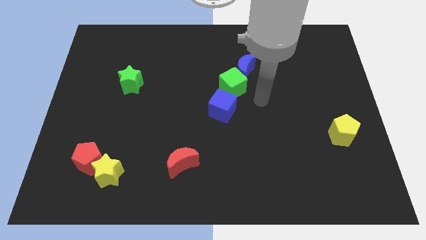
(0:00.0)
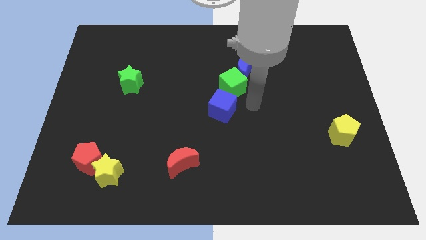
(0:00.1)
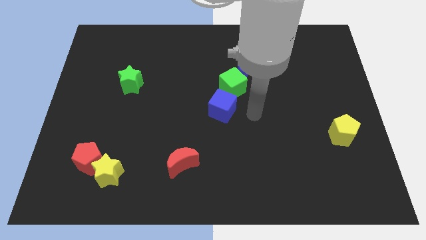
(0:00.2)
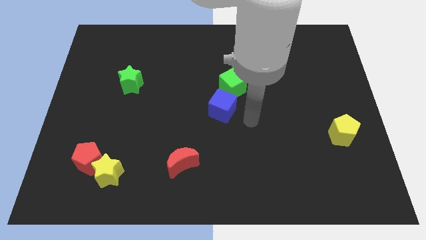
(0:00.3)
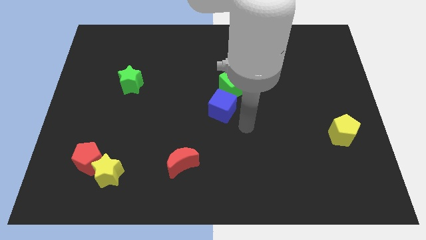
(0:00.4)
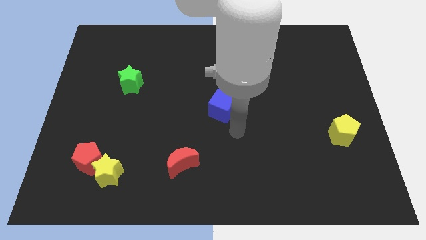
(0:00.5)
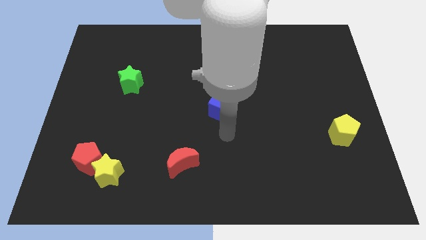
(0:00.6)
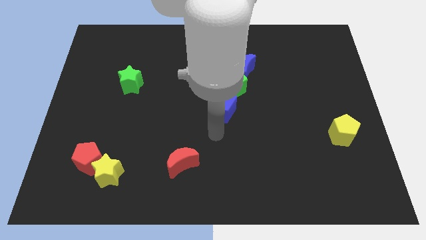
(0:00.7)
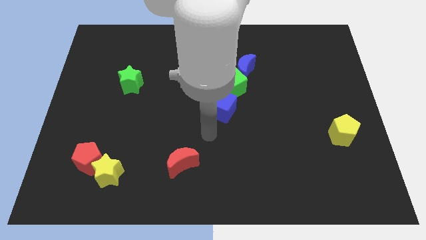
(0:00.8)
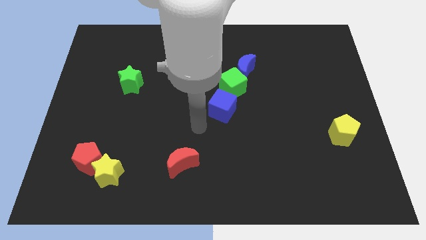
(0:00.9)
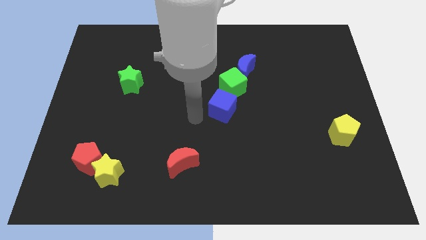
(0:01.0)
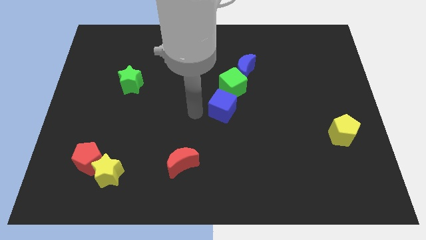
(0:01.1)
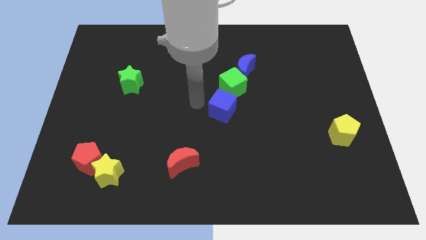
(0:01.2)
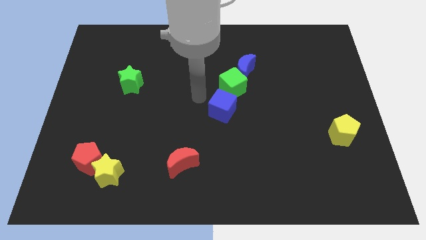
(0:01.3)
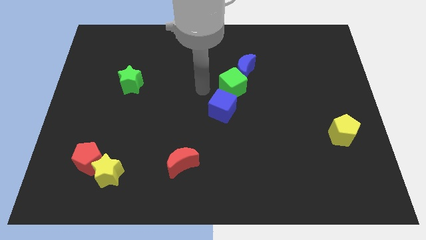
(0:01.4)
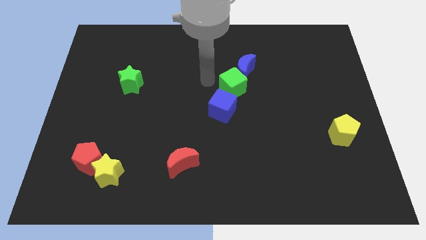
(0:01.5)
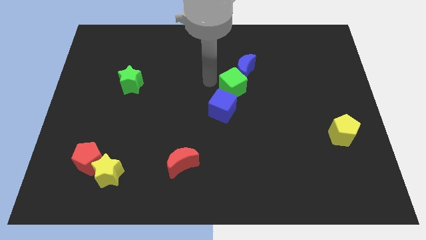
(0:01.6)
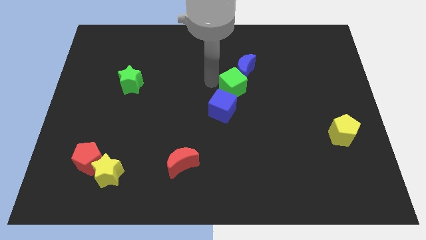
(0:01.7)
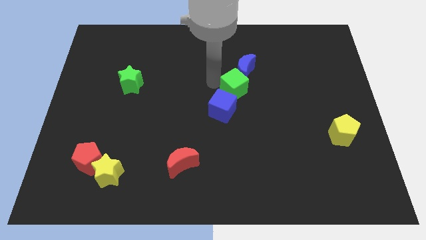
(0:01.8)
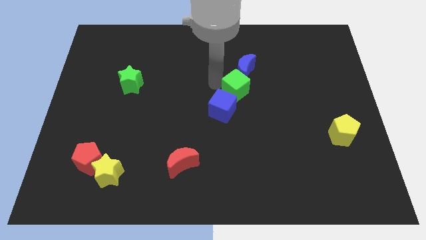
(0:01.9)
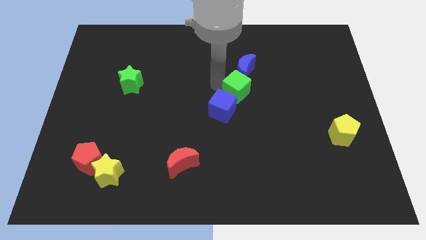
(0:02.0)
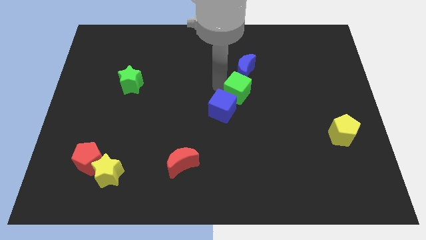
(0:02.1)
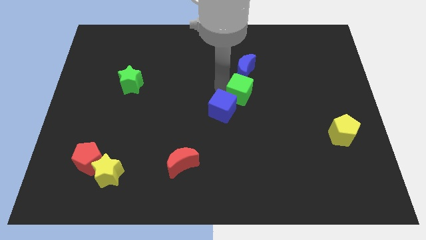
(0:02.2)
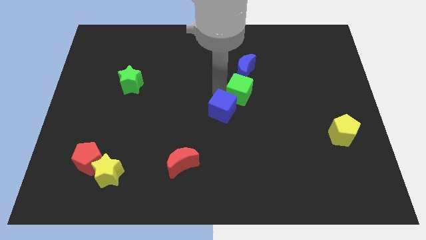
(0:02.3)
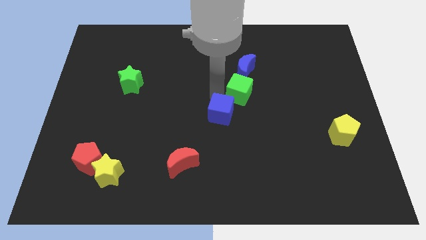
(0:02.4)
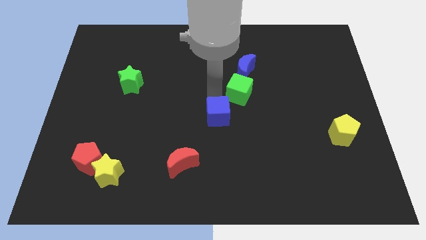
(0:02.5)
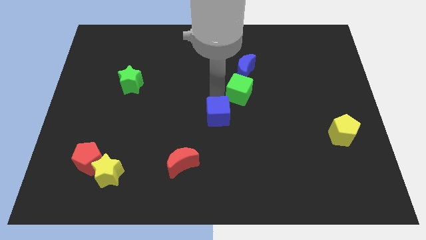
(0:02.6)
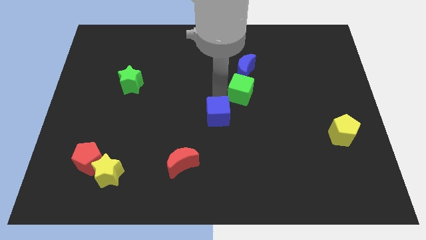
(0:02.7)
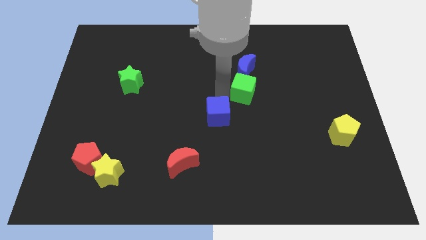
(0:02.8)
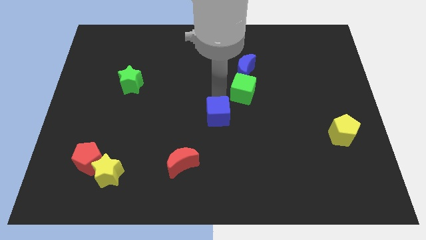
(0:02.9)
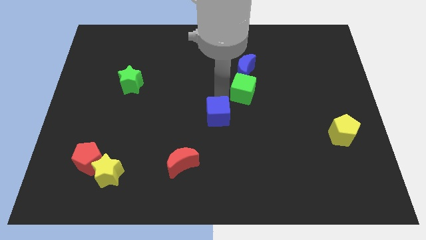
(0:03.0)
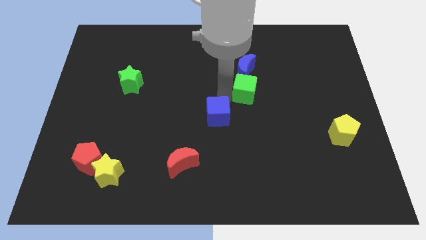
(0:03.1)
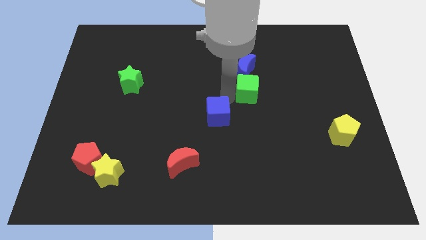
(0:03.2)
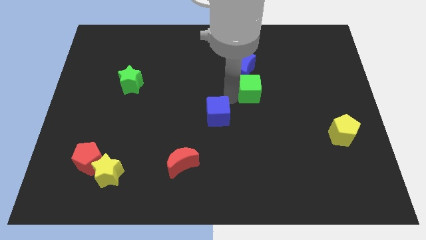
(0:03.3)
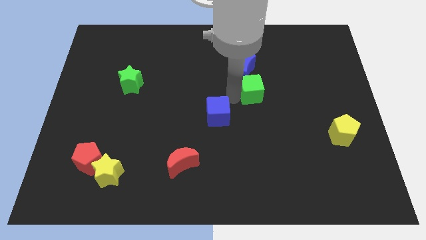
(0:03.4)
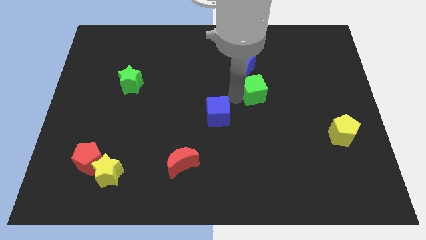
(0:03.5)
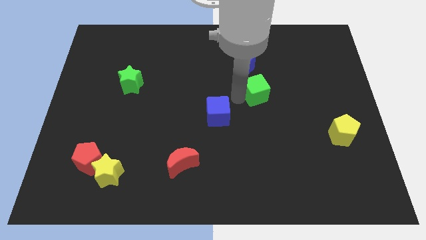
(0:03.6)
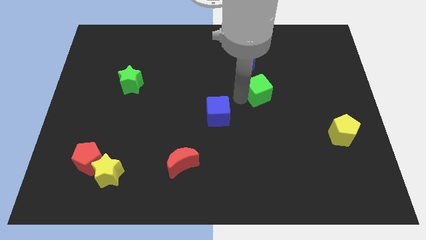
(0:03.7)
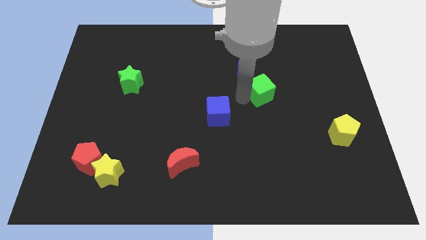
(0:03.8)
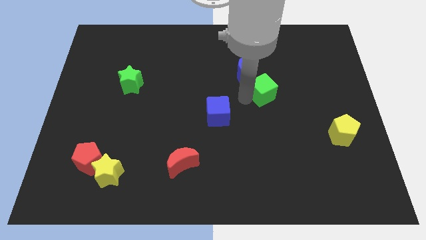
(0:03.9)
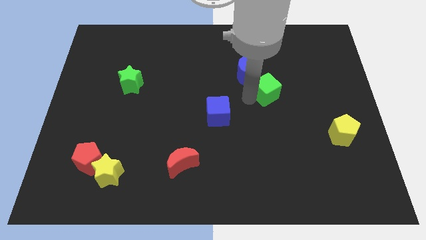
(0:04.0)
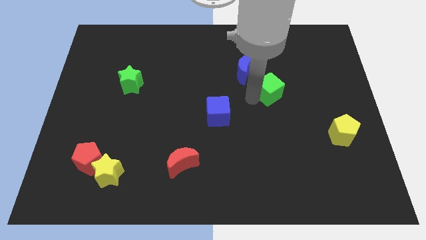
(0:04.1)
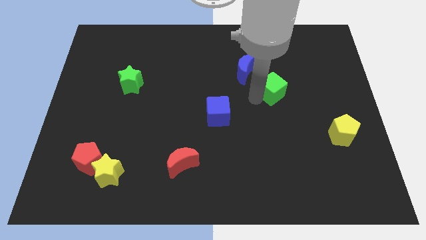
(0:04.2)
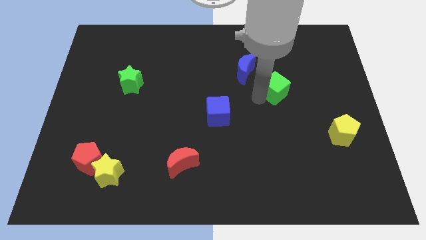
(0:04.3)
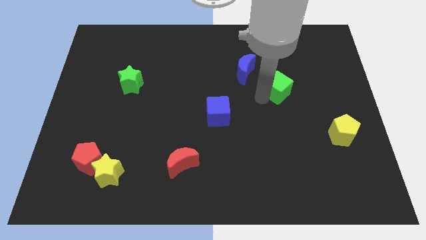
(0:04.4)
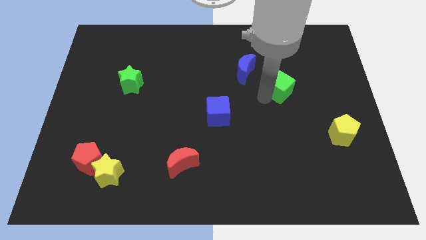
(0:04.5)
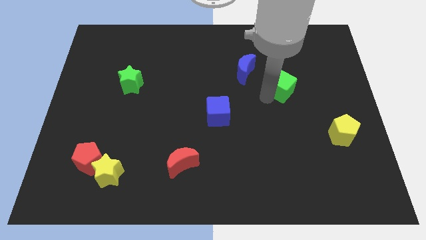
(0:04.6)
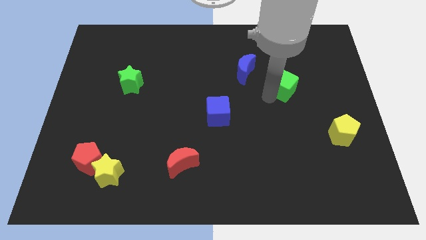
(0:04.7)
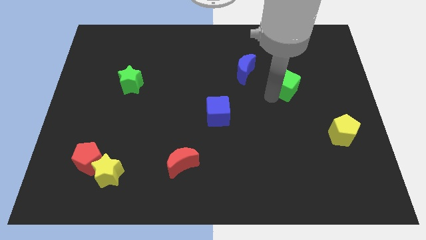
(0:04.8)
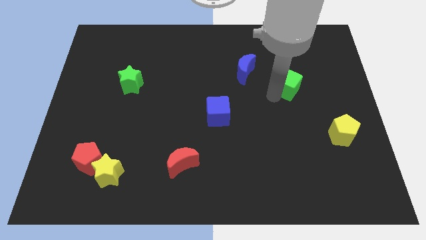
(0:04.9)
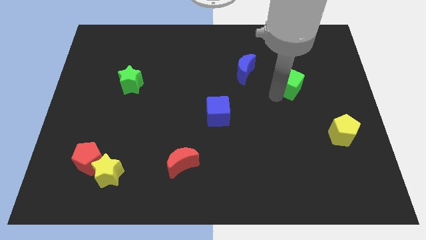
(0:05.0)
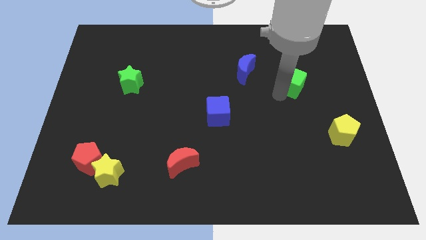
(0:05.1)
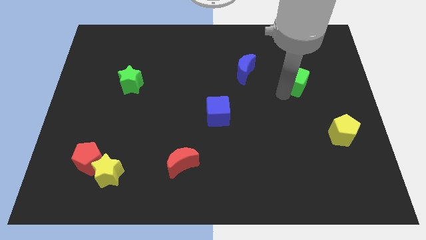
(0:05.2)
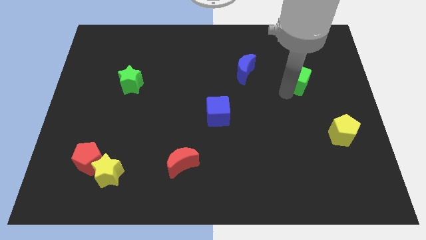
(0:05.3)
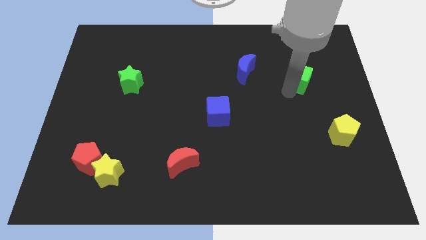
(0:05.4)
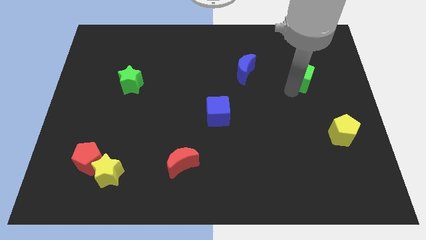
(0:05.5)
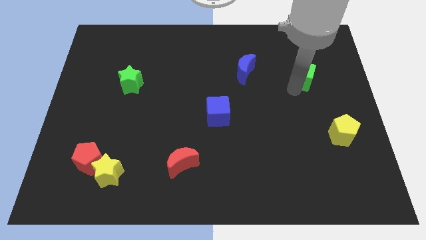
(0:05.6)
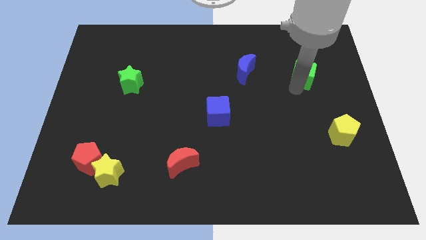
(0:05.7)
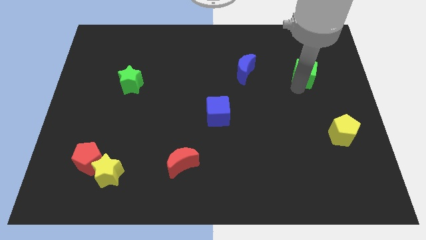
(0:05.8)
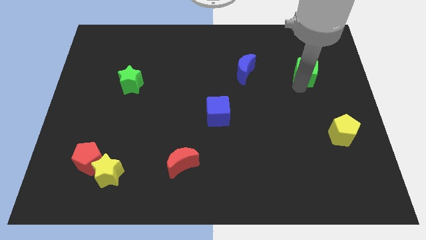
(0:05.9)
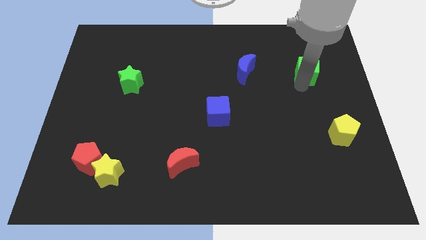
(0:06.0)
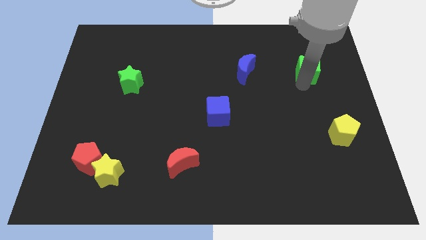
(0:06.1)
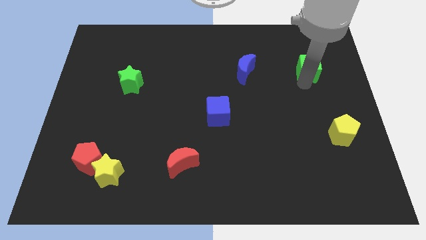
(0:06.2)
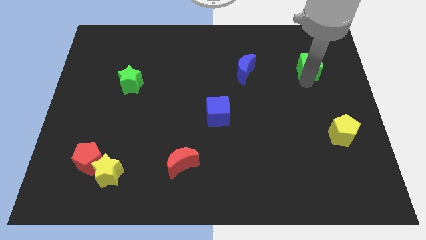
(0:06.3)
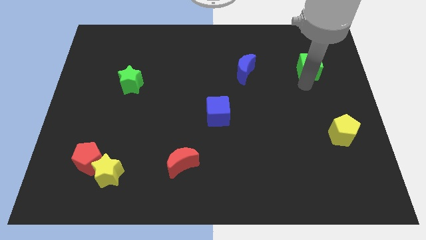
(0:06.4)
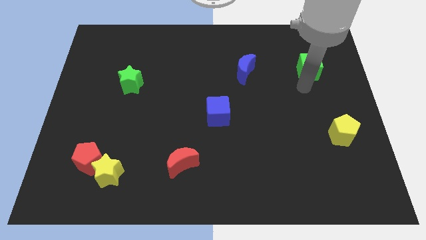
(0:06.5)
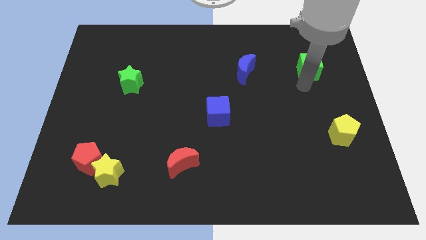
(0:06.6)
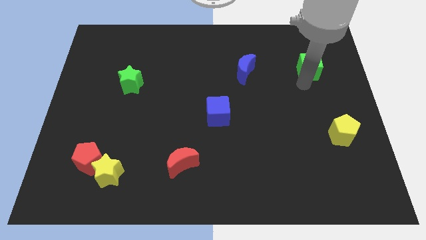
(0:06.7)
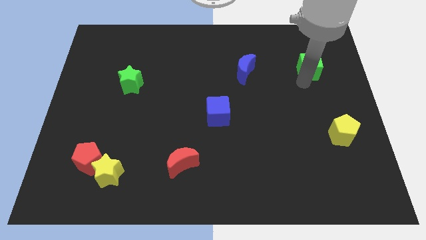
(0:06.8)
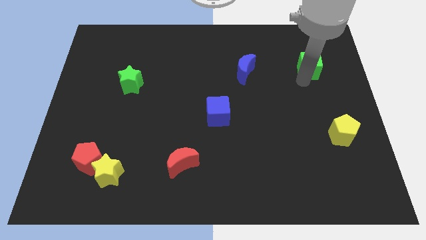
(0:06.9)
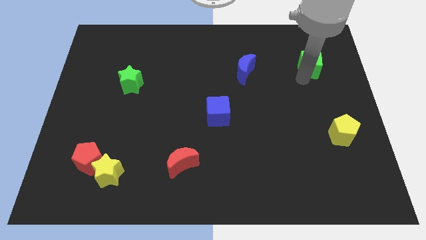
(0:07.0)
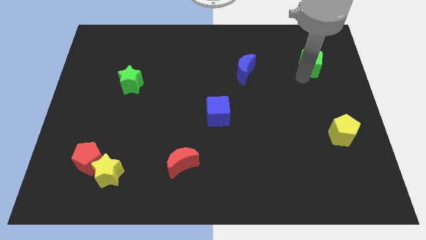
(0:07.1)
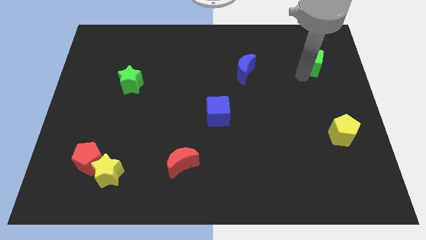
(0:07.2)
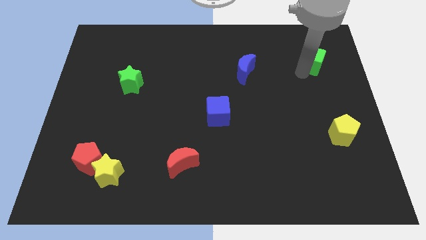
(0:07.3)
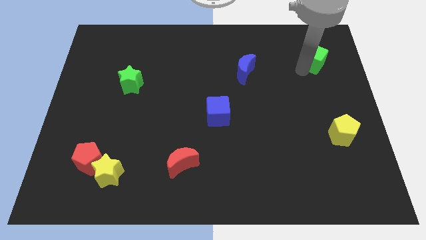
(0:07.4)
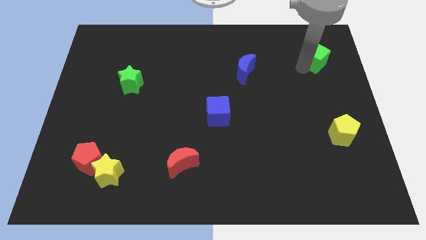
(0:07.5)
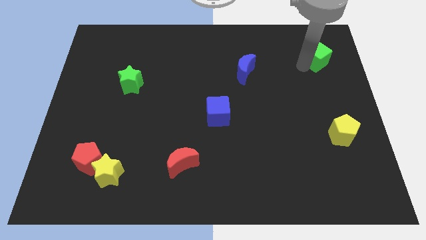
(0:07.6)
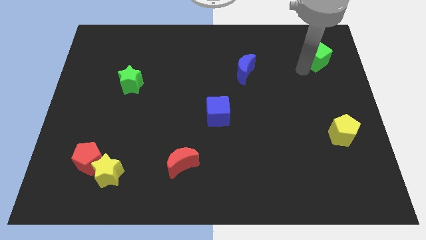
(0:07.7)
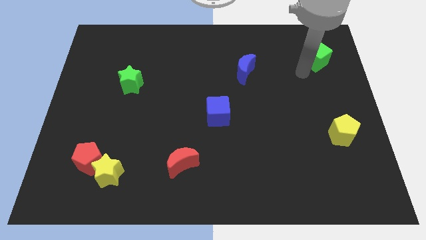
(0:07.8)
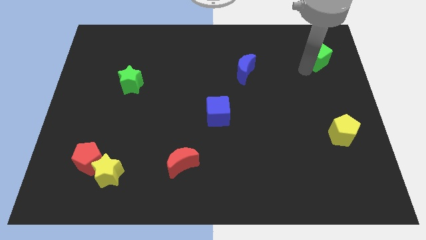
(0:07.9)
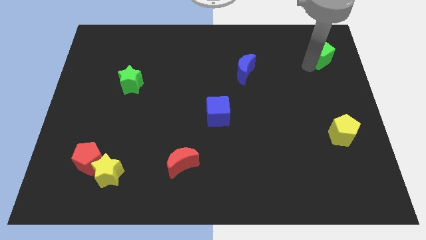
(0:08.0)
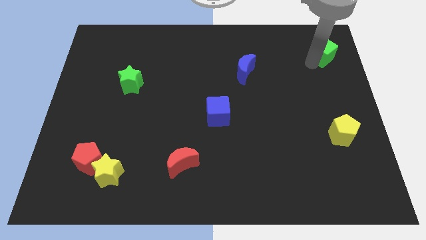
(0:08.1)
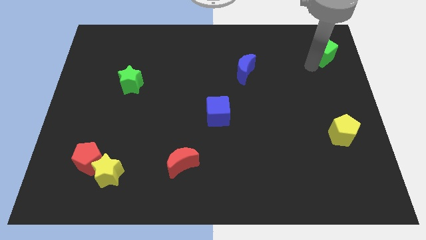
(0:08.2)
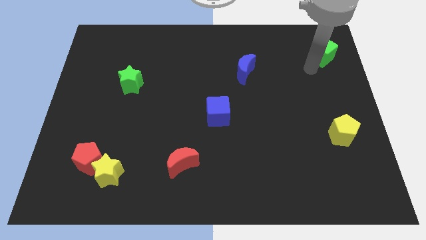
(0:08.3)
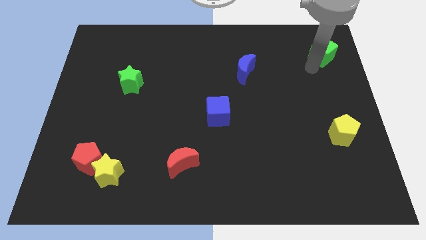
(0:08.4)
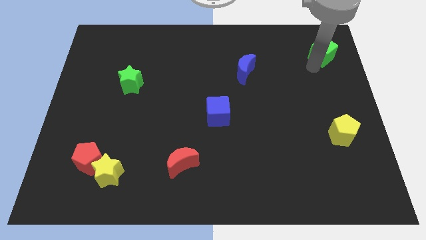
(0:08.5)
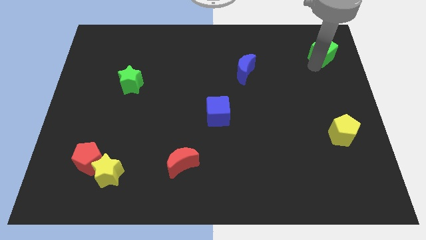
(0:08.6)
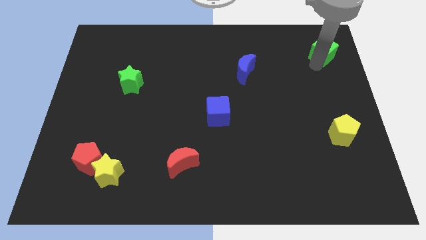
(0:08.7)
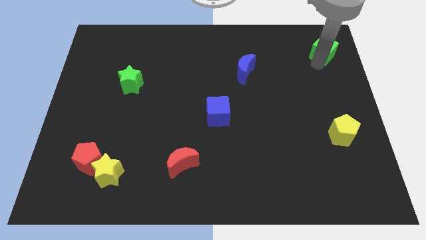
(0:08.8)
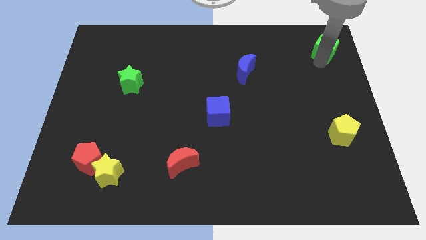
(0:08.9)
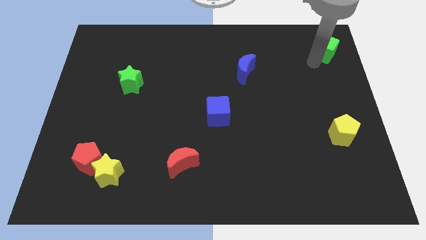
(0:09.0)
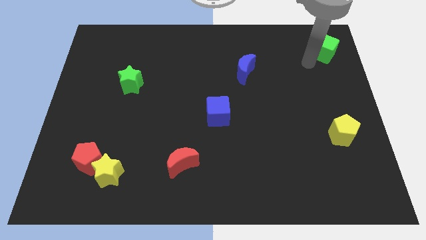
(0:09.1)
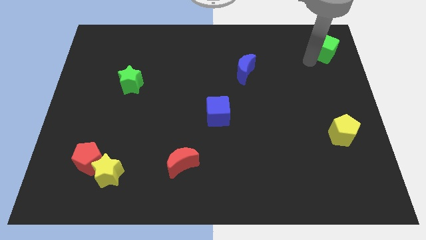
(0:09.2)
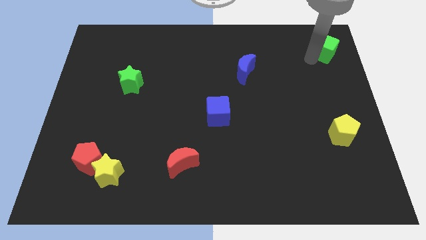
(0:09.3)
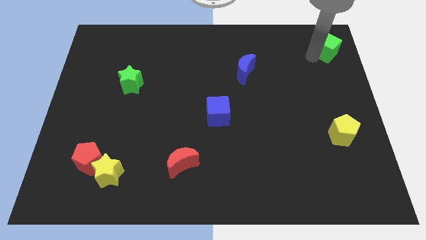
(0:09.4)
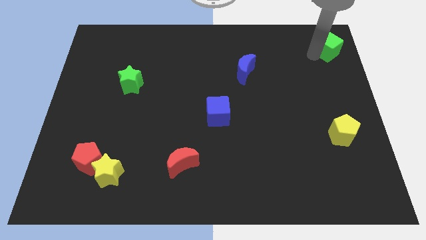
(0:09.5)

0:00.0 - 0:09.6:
put the green cube to the upper right corner
